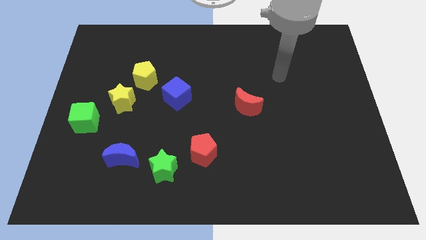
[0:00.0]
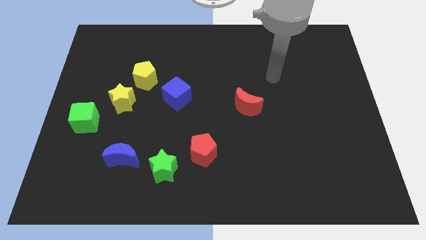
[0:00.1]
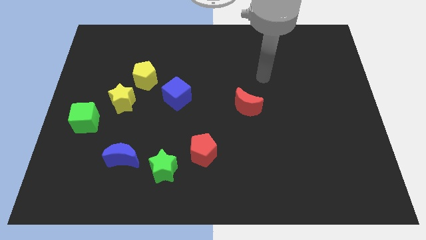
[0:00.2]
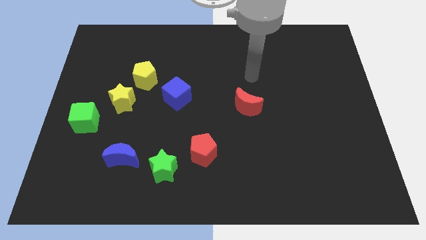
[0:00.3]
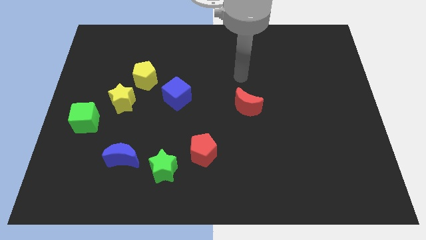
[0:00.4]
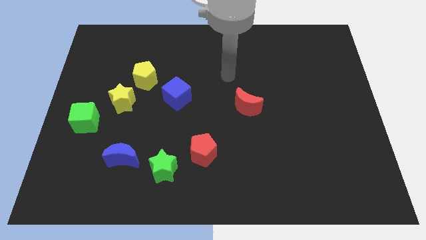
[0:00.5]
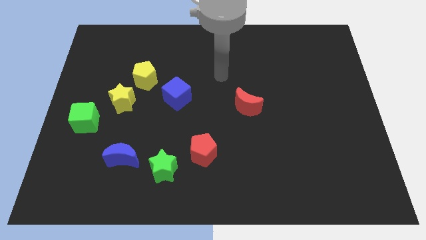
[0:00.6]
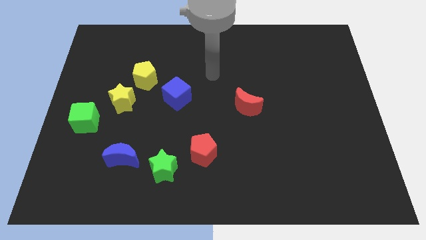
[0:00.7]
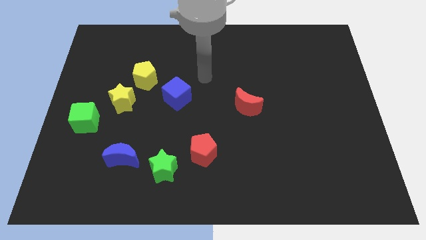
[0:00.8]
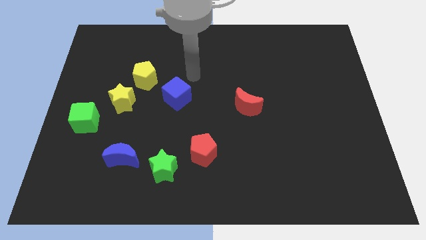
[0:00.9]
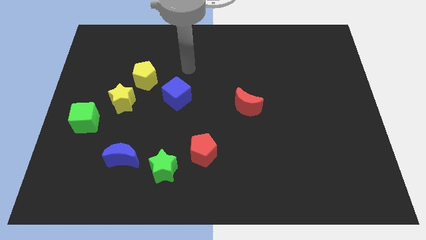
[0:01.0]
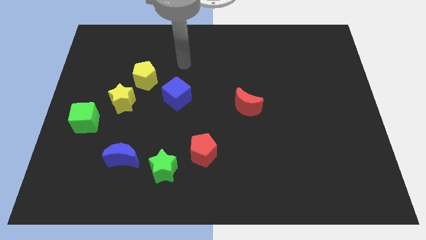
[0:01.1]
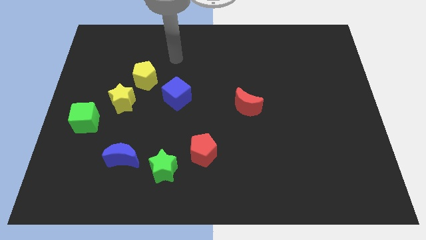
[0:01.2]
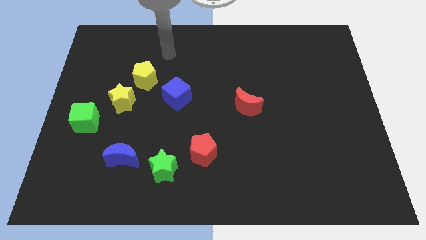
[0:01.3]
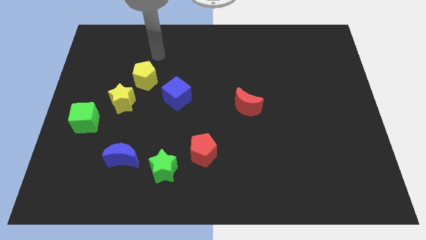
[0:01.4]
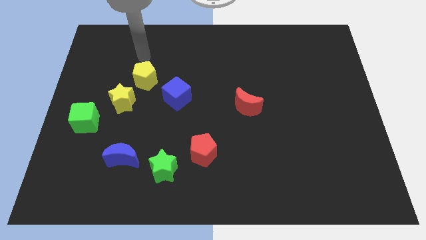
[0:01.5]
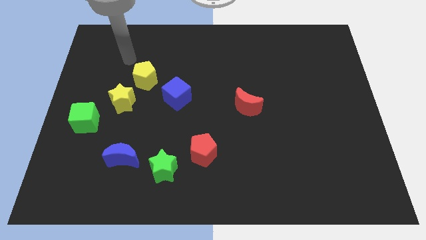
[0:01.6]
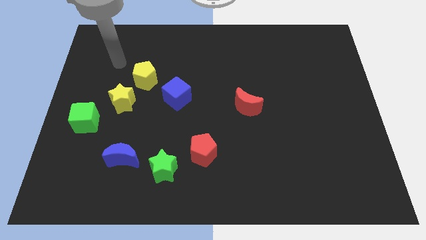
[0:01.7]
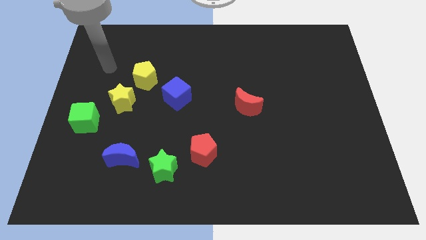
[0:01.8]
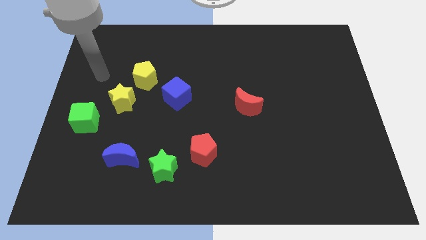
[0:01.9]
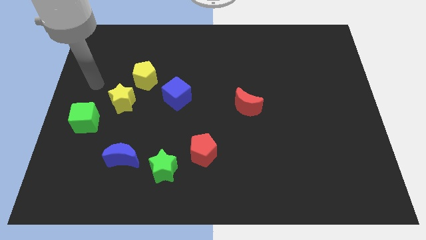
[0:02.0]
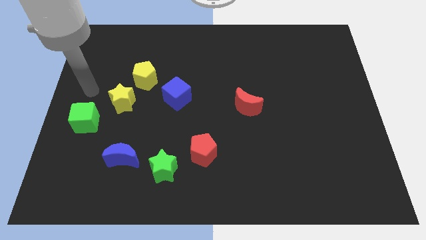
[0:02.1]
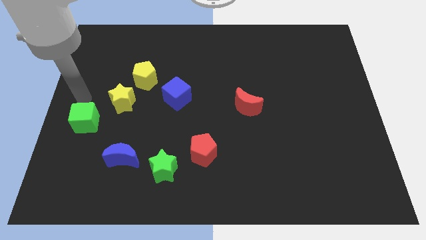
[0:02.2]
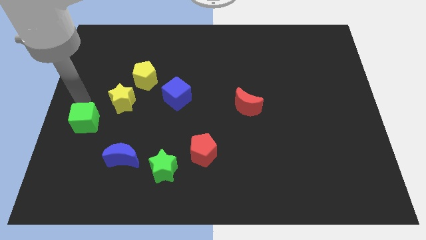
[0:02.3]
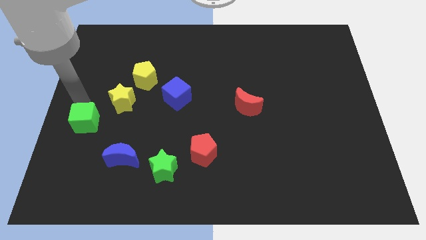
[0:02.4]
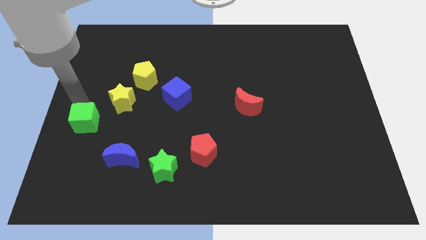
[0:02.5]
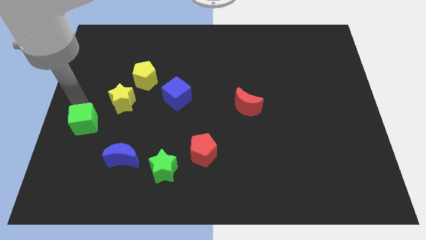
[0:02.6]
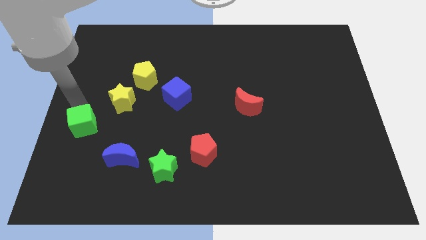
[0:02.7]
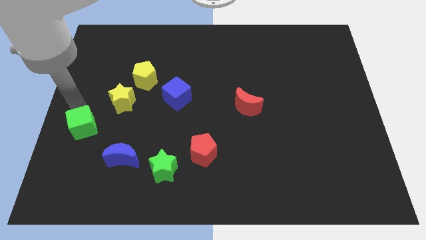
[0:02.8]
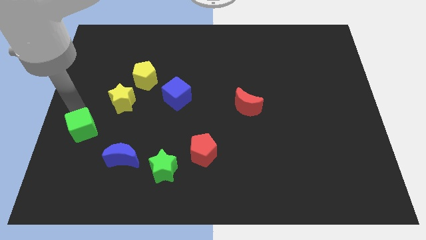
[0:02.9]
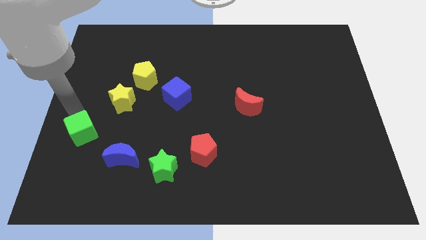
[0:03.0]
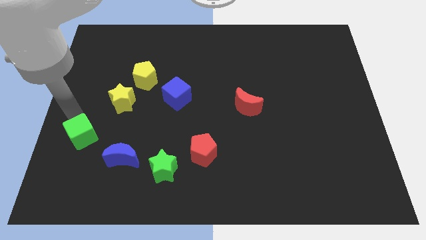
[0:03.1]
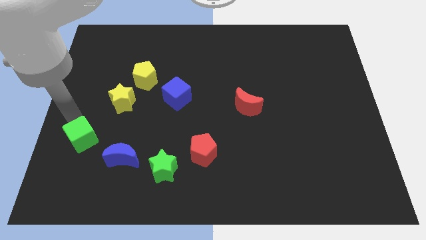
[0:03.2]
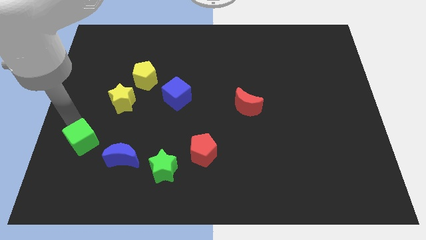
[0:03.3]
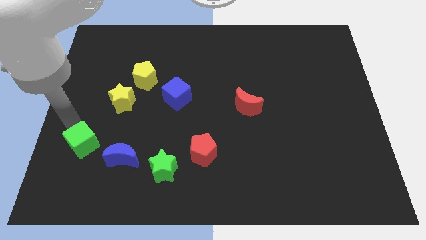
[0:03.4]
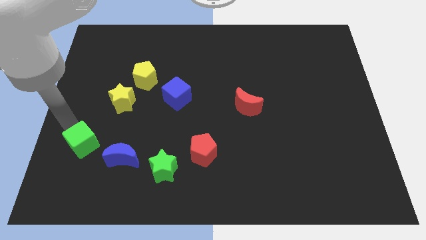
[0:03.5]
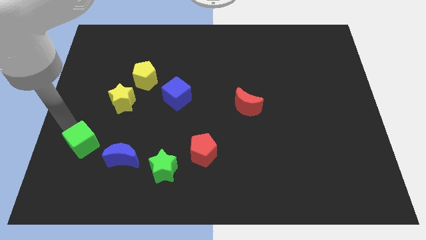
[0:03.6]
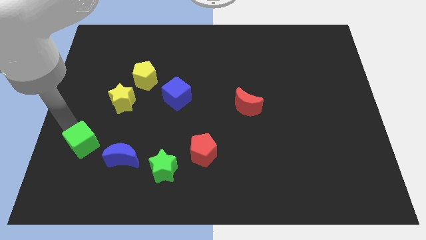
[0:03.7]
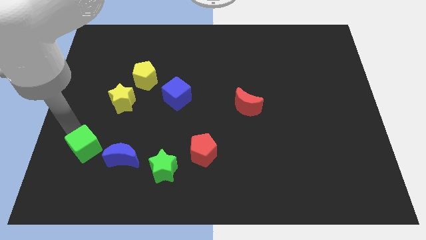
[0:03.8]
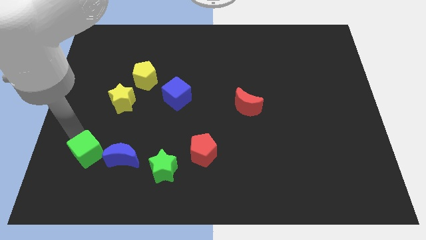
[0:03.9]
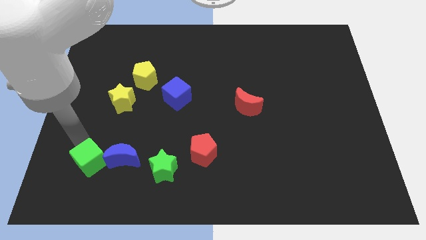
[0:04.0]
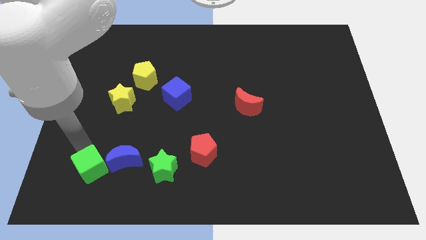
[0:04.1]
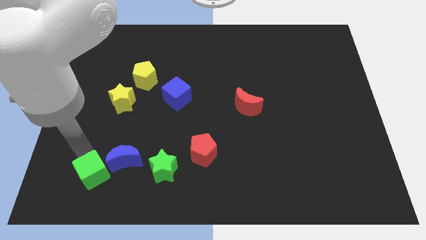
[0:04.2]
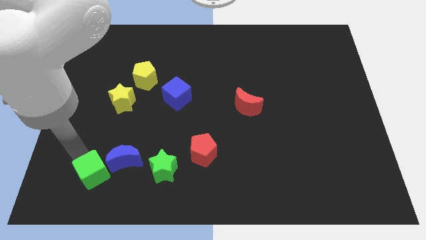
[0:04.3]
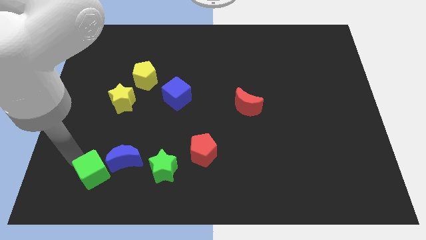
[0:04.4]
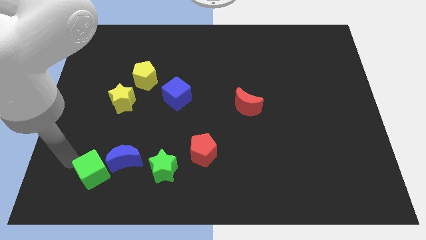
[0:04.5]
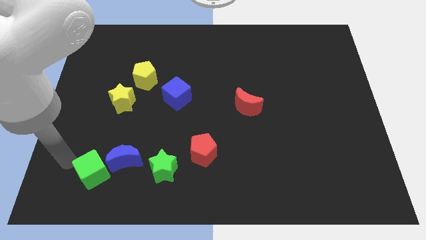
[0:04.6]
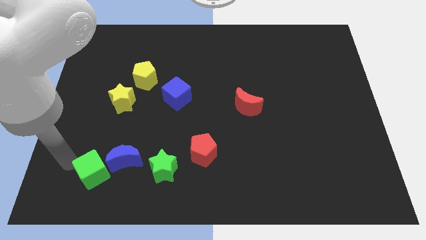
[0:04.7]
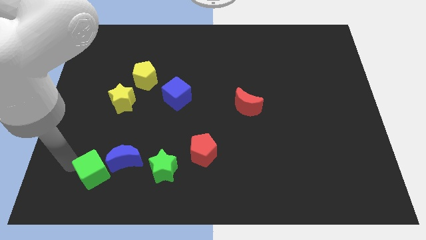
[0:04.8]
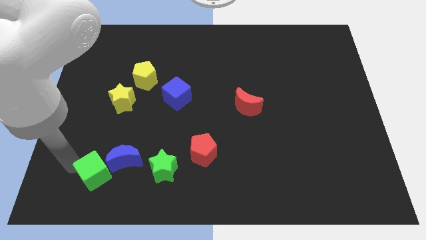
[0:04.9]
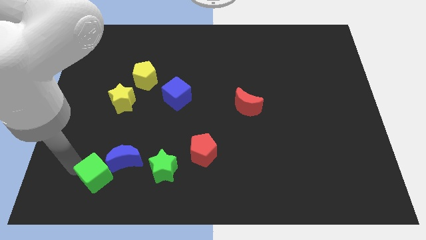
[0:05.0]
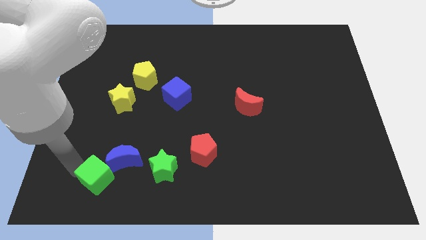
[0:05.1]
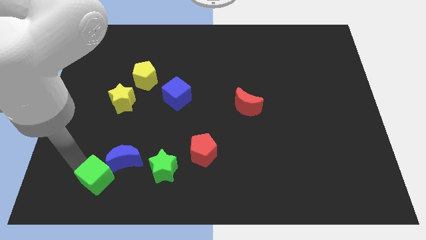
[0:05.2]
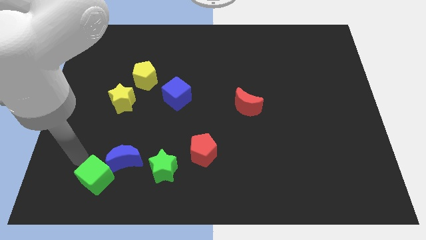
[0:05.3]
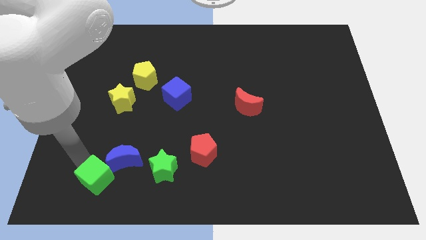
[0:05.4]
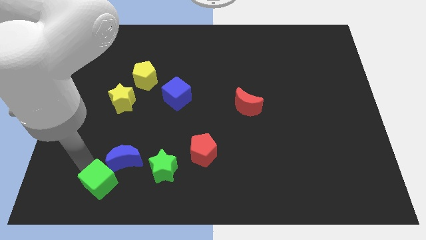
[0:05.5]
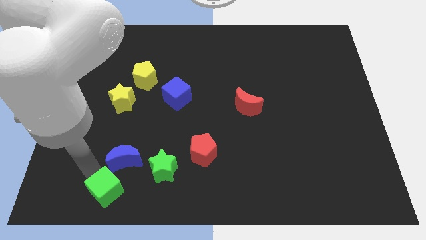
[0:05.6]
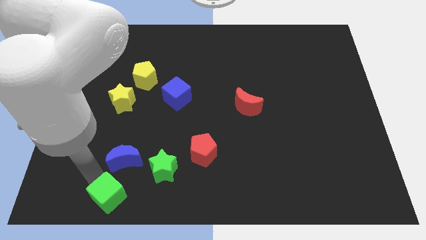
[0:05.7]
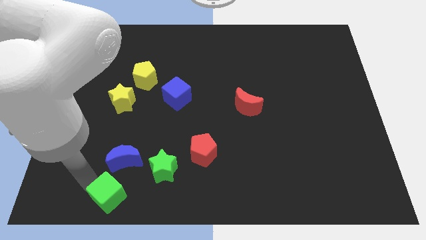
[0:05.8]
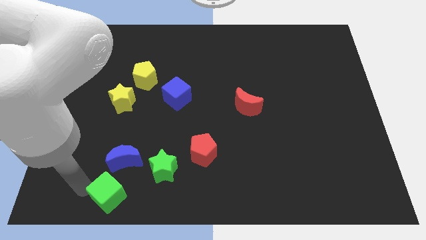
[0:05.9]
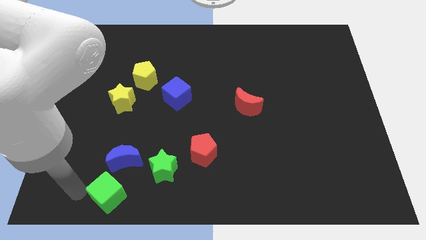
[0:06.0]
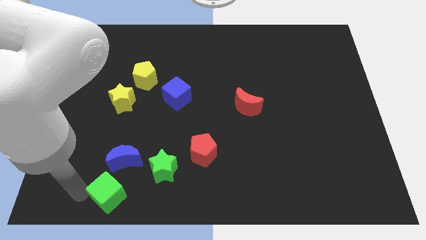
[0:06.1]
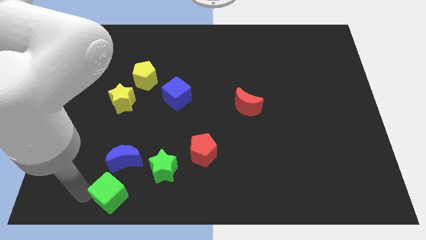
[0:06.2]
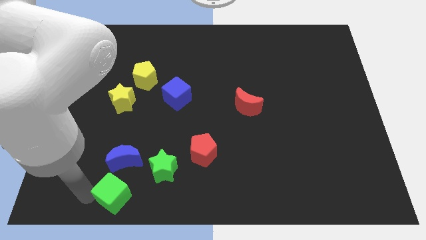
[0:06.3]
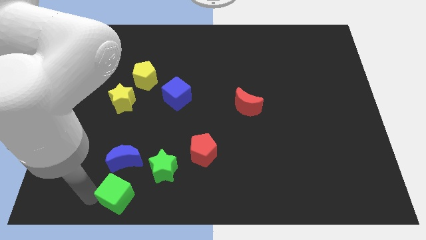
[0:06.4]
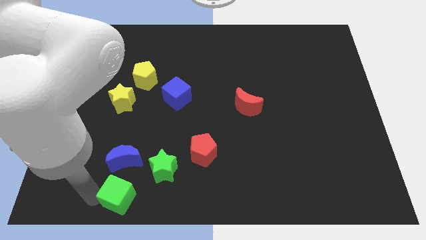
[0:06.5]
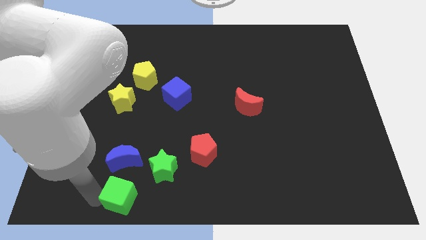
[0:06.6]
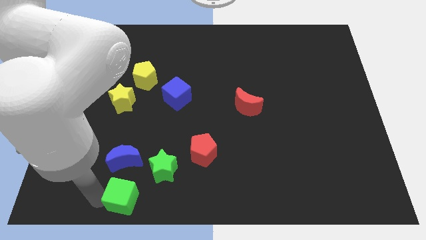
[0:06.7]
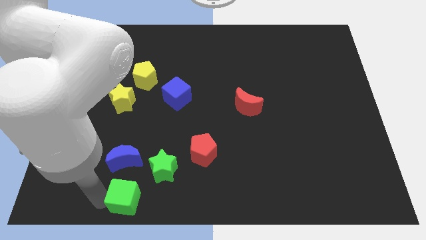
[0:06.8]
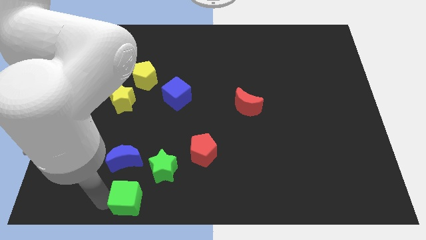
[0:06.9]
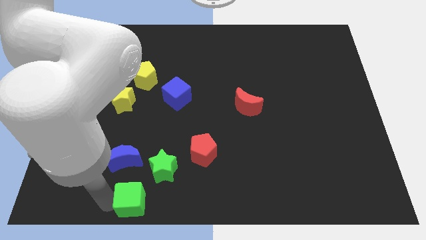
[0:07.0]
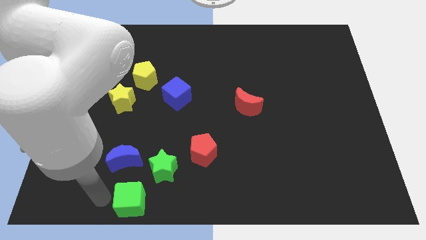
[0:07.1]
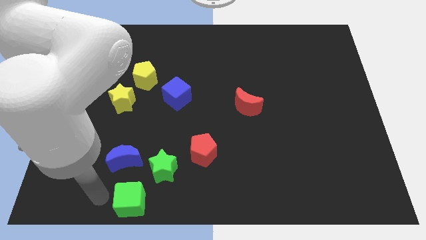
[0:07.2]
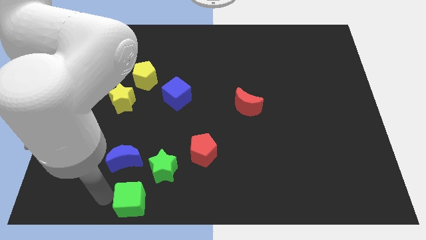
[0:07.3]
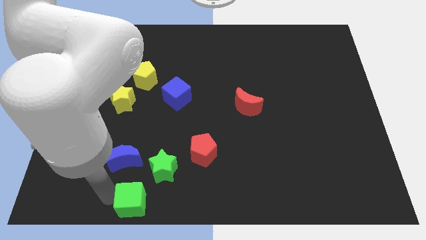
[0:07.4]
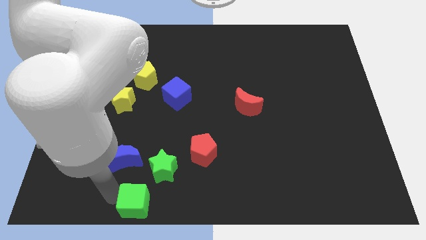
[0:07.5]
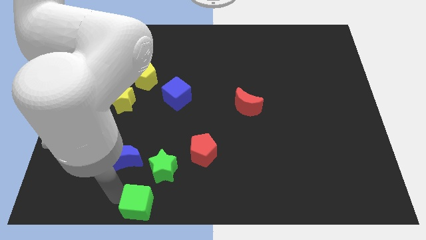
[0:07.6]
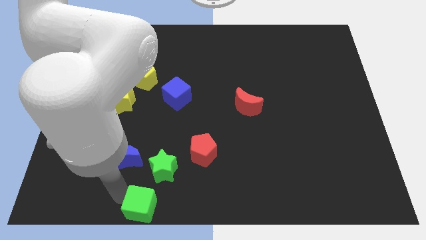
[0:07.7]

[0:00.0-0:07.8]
put the green cube to the bottom side
